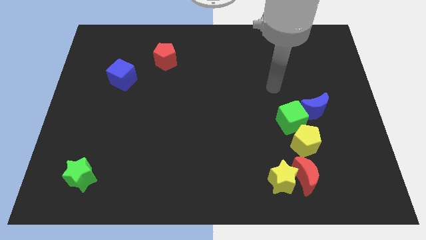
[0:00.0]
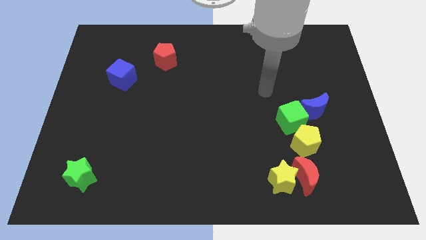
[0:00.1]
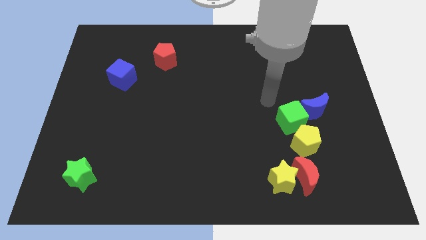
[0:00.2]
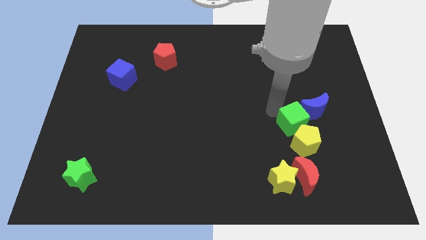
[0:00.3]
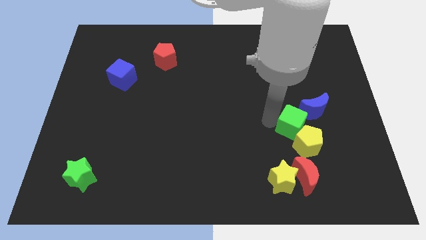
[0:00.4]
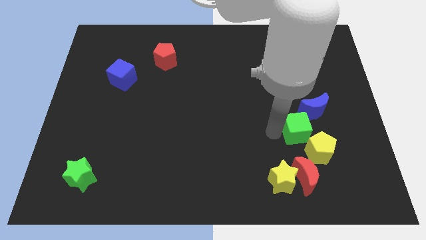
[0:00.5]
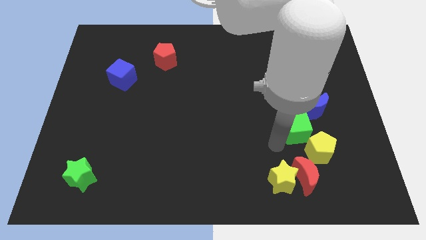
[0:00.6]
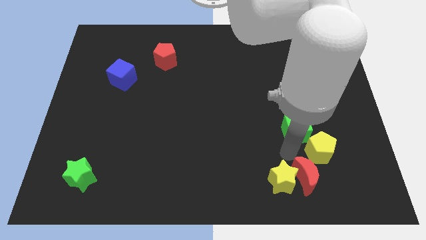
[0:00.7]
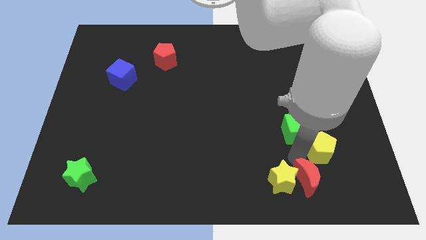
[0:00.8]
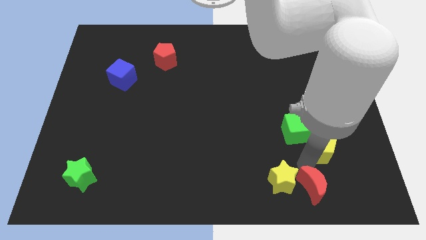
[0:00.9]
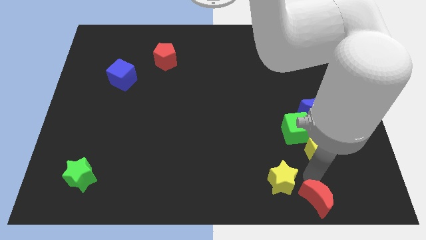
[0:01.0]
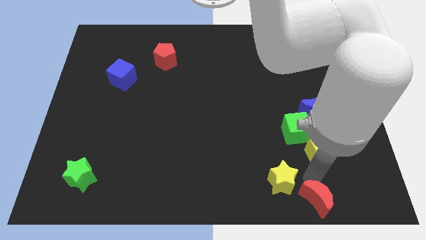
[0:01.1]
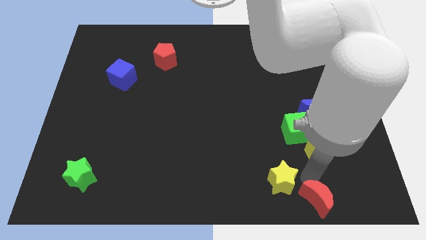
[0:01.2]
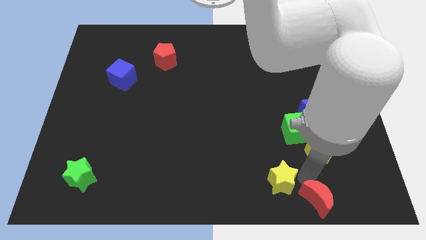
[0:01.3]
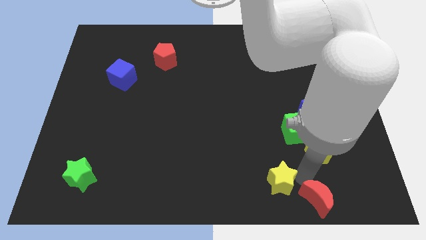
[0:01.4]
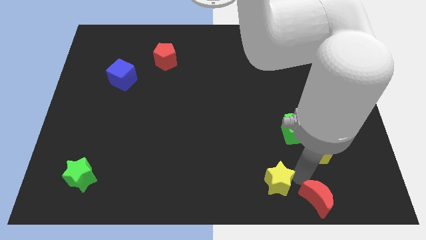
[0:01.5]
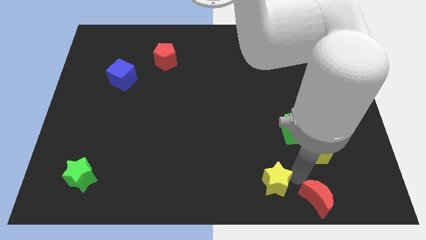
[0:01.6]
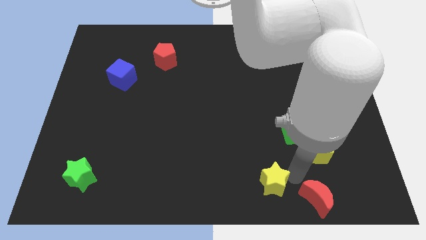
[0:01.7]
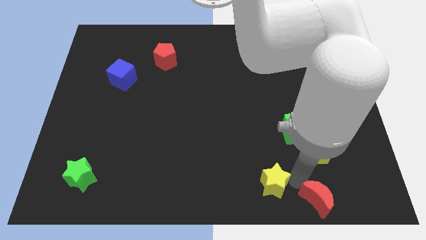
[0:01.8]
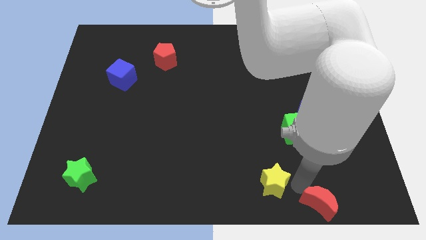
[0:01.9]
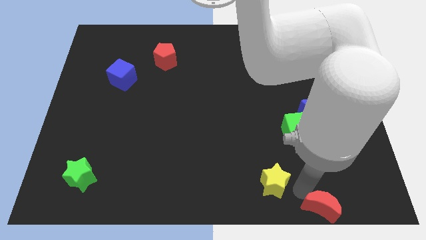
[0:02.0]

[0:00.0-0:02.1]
pull the yellow star apart from the red moon

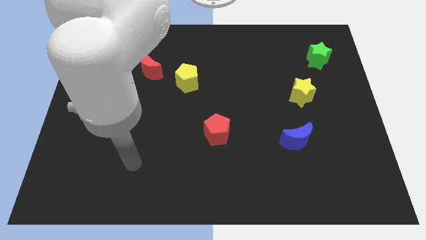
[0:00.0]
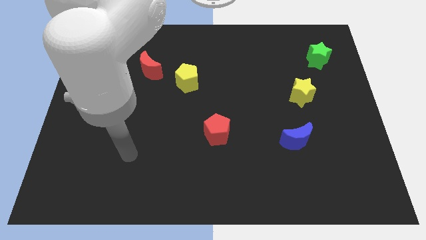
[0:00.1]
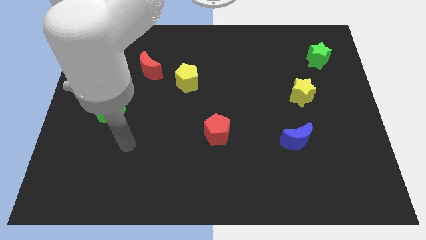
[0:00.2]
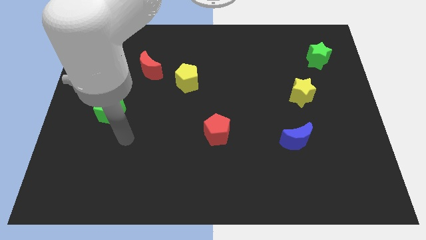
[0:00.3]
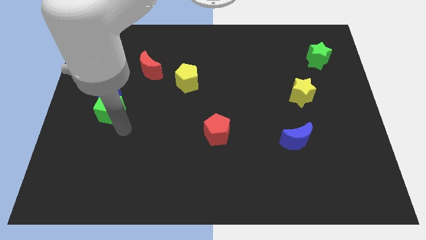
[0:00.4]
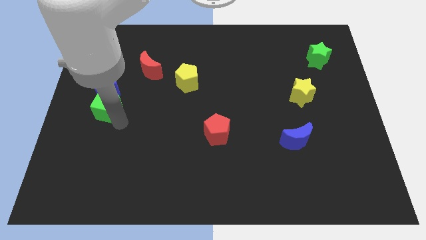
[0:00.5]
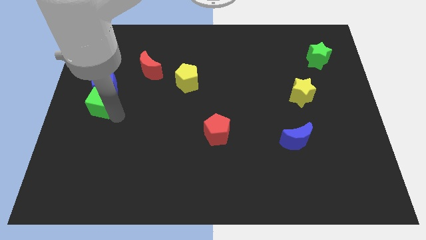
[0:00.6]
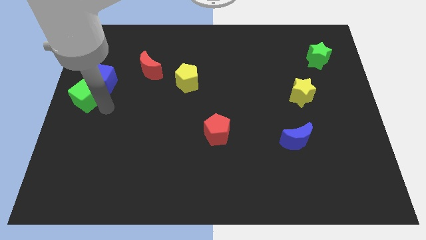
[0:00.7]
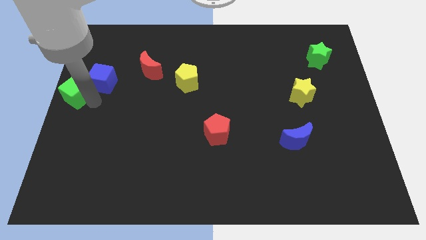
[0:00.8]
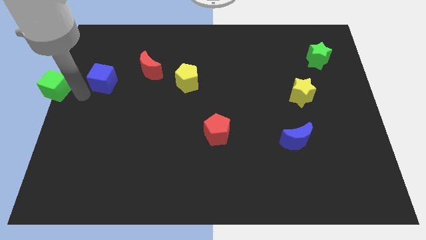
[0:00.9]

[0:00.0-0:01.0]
separate the blue cube from the green cube

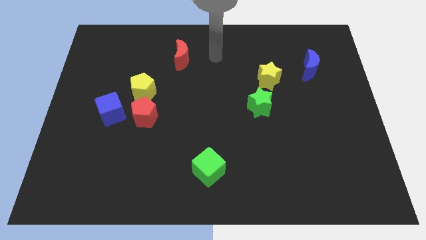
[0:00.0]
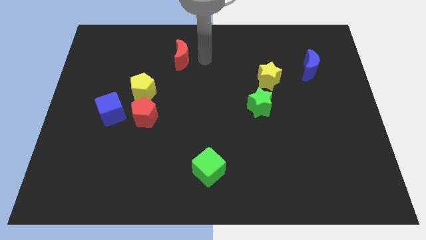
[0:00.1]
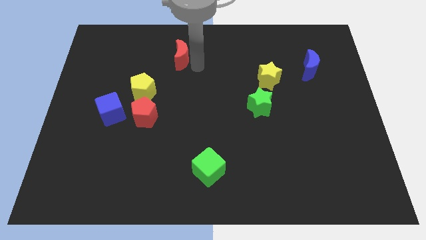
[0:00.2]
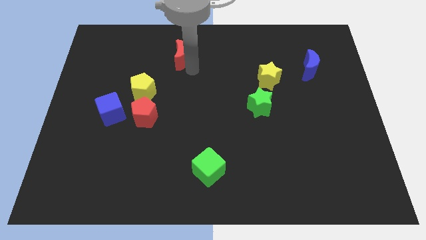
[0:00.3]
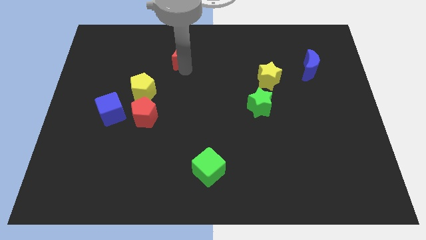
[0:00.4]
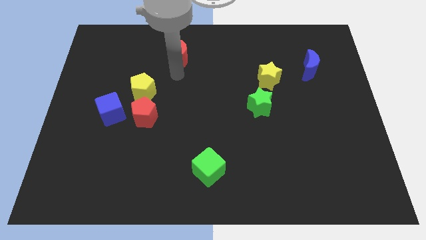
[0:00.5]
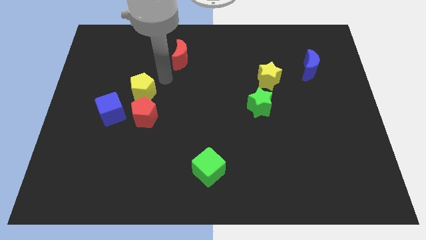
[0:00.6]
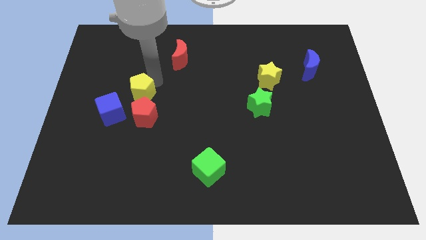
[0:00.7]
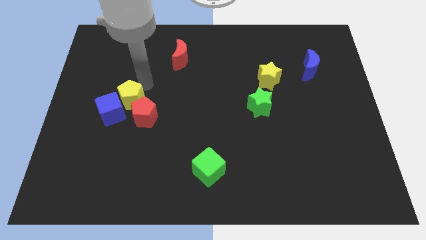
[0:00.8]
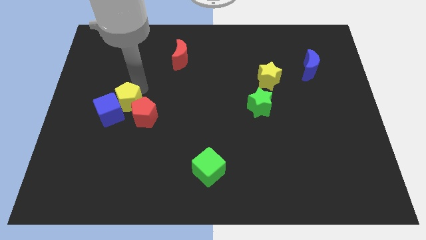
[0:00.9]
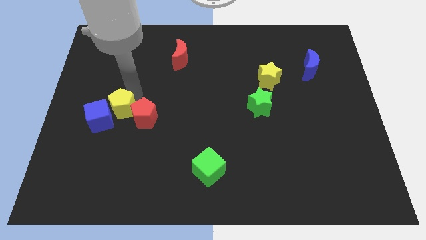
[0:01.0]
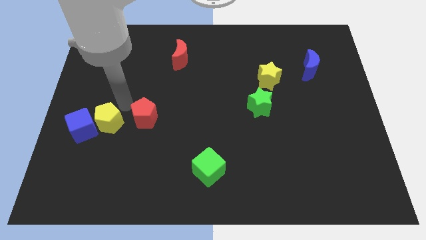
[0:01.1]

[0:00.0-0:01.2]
separate the red pentagon from the yellow pentagon and blue cube

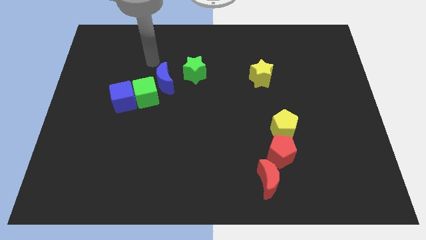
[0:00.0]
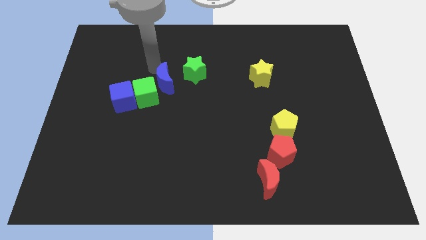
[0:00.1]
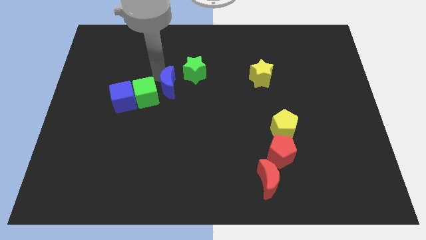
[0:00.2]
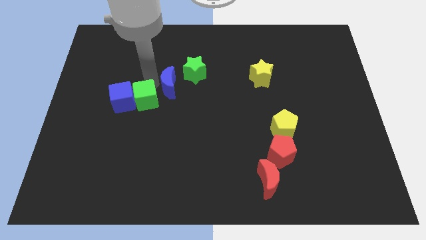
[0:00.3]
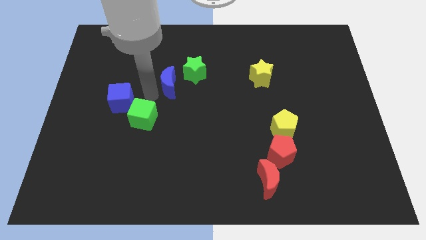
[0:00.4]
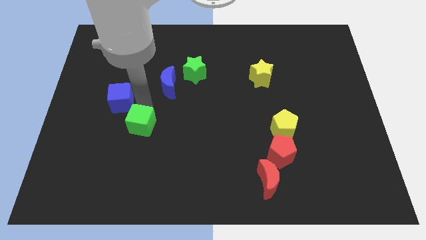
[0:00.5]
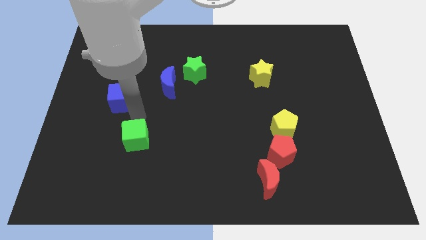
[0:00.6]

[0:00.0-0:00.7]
pull the blue cube apart from the green cube

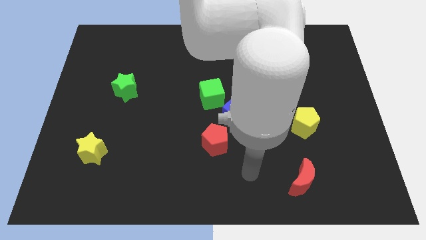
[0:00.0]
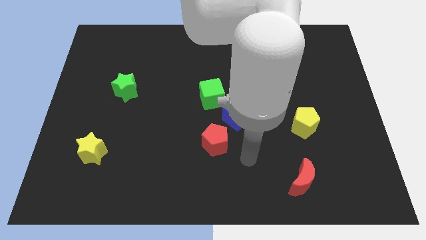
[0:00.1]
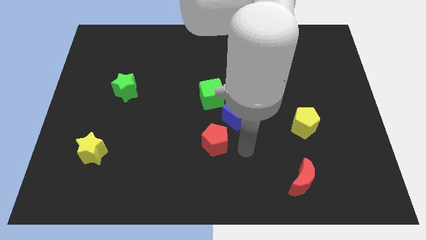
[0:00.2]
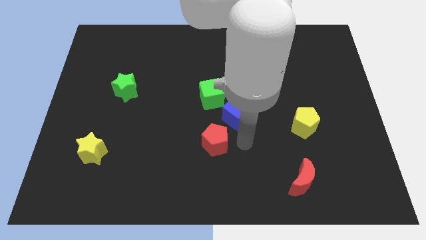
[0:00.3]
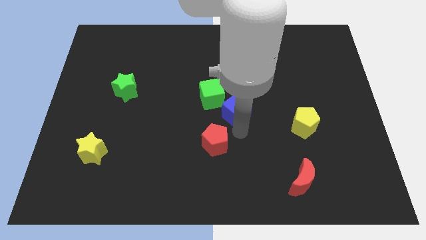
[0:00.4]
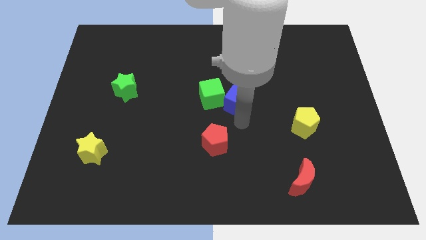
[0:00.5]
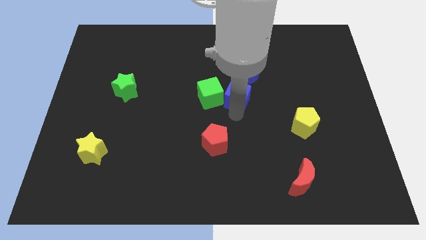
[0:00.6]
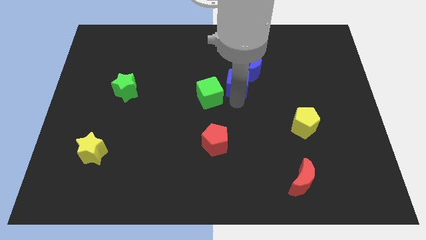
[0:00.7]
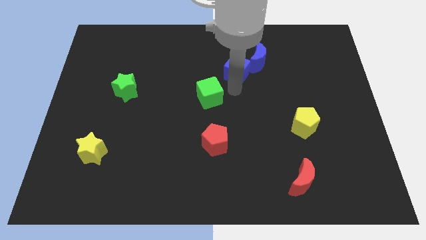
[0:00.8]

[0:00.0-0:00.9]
separate the green cube from the blue cube

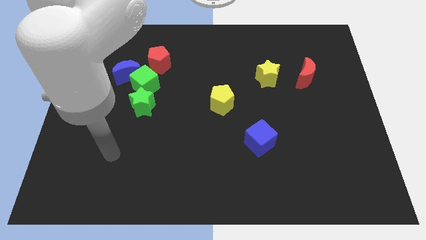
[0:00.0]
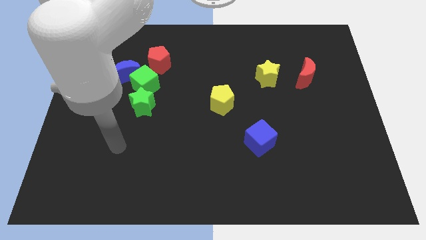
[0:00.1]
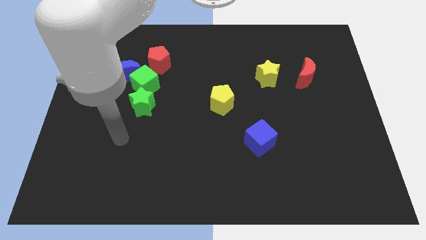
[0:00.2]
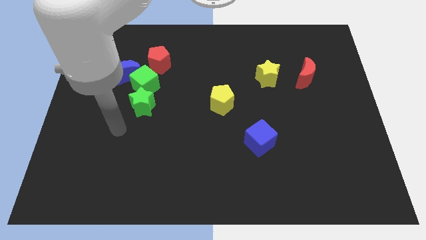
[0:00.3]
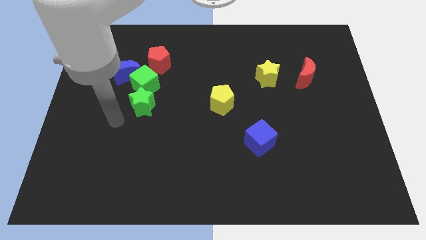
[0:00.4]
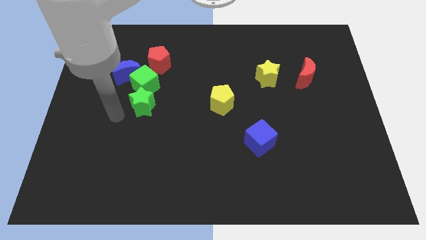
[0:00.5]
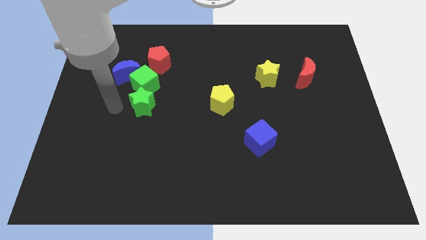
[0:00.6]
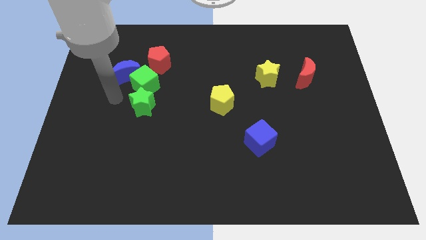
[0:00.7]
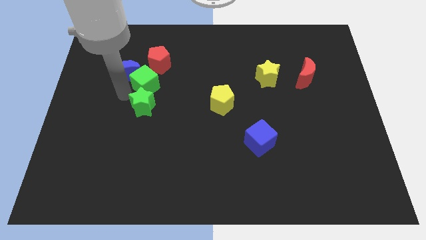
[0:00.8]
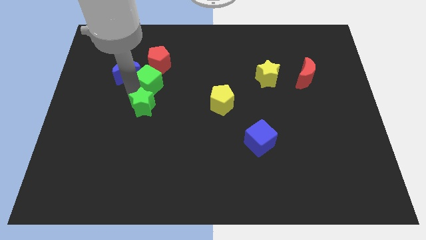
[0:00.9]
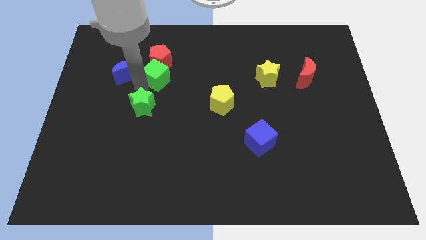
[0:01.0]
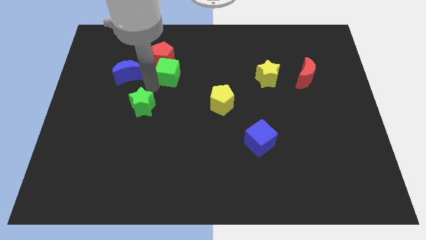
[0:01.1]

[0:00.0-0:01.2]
move the green star away from the green cube

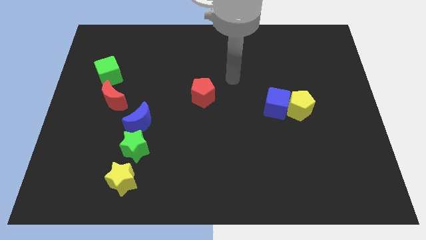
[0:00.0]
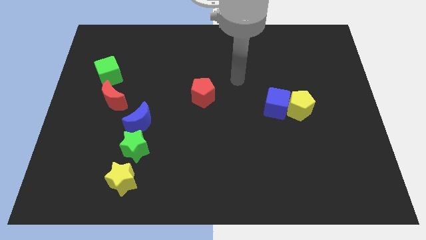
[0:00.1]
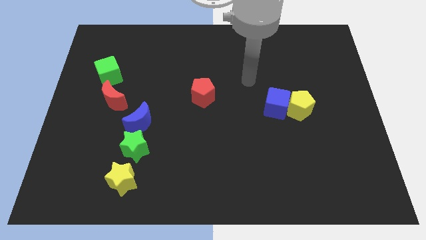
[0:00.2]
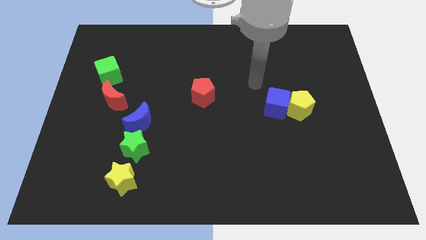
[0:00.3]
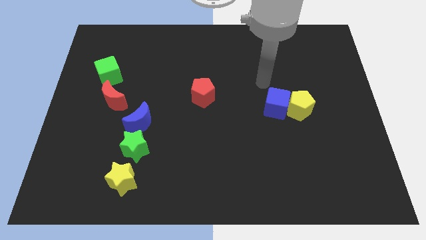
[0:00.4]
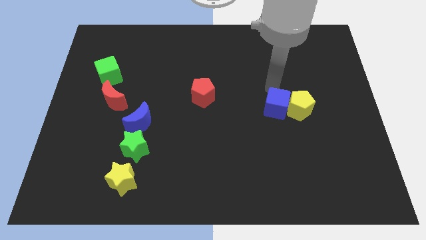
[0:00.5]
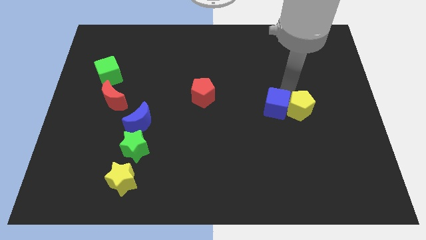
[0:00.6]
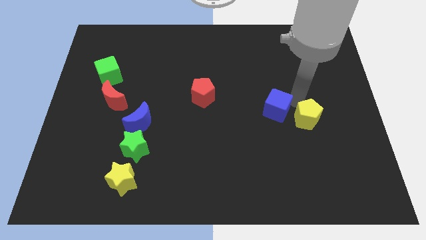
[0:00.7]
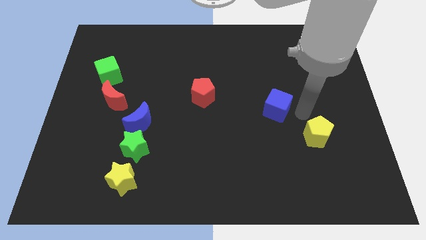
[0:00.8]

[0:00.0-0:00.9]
pull the blue cube apart from the yellow pentagon

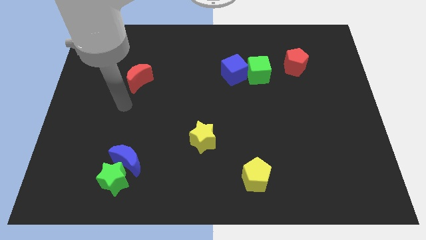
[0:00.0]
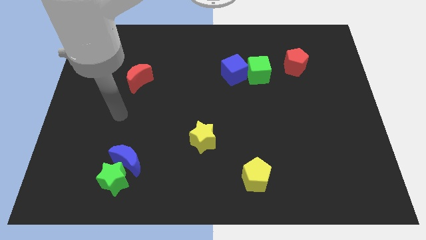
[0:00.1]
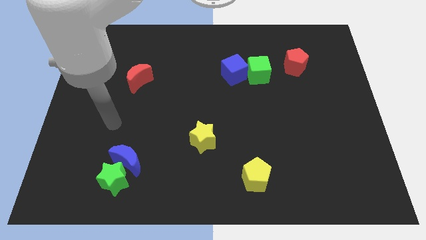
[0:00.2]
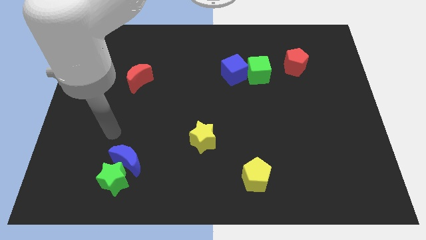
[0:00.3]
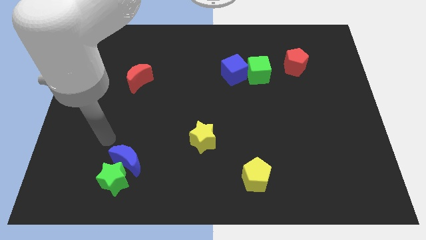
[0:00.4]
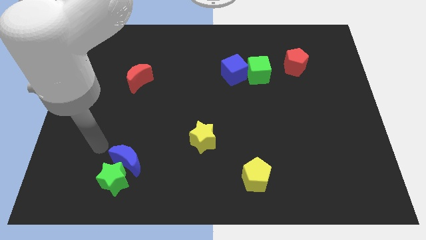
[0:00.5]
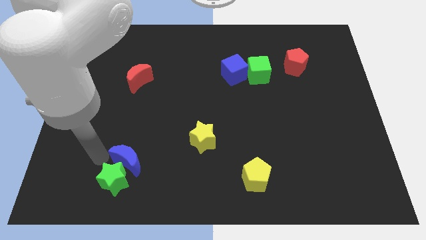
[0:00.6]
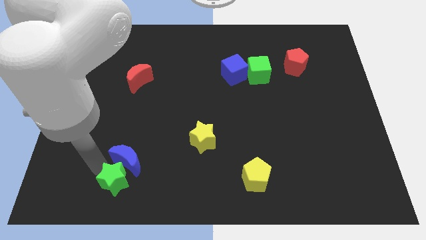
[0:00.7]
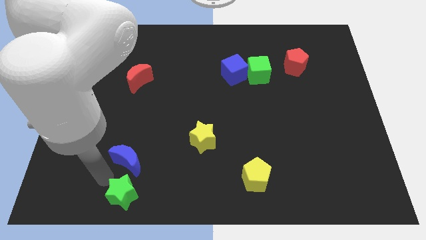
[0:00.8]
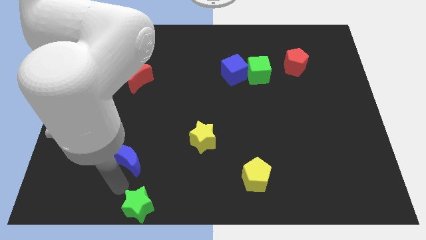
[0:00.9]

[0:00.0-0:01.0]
pull the blue moon apart from the green star

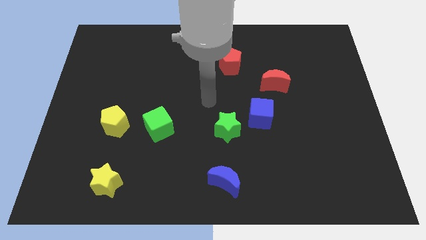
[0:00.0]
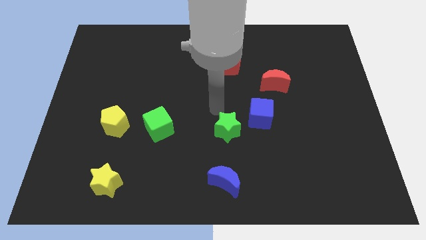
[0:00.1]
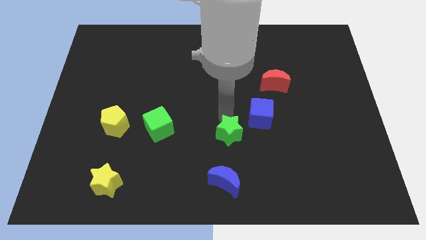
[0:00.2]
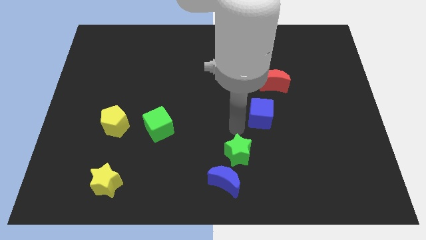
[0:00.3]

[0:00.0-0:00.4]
pull the blue cube apart from the green star
